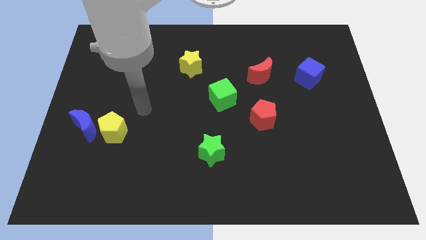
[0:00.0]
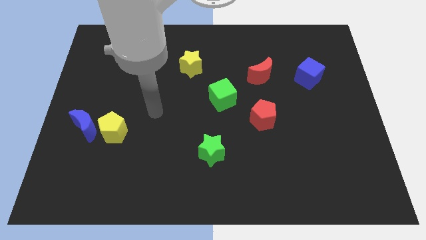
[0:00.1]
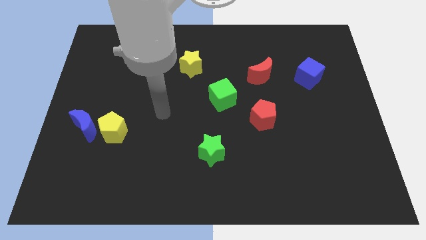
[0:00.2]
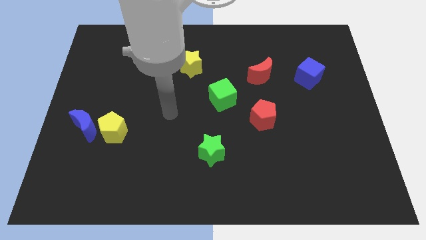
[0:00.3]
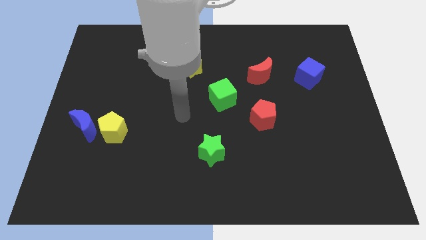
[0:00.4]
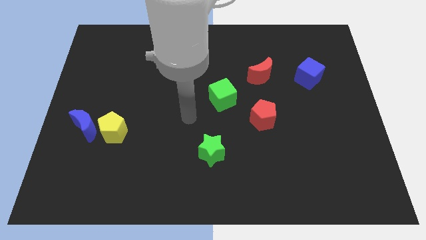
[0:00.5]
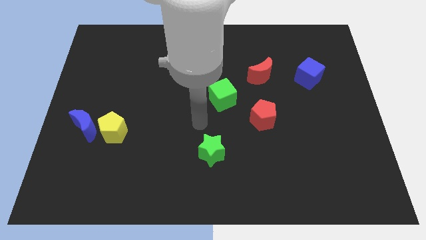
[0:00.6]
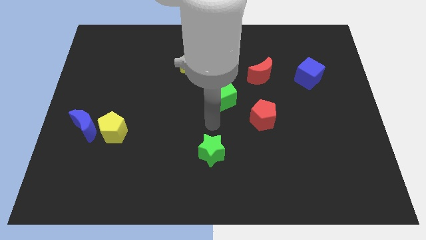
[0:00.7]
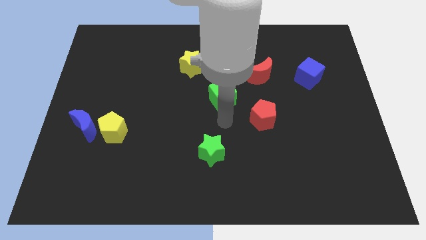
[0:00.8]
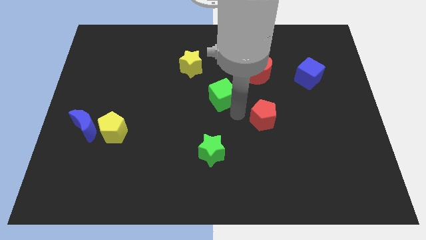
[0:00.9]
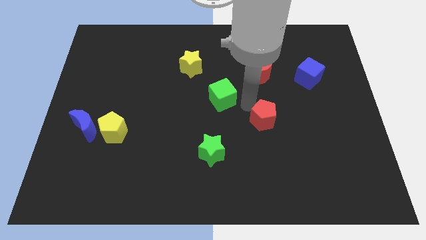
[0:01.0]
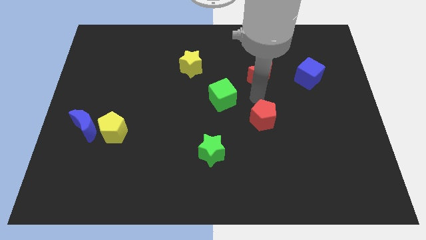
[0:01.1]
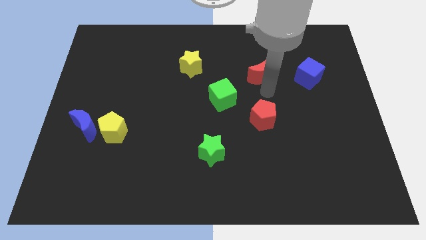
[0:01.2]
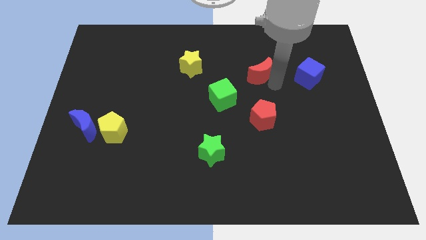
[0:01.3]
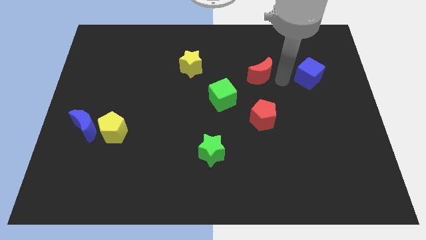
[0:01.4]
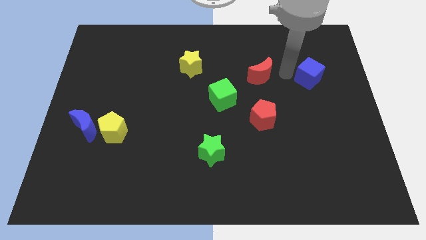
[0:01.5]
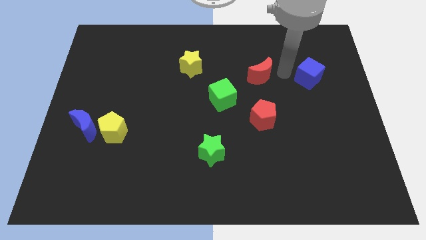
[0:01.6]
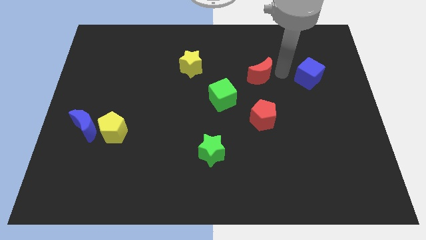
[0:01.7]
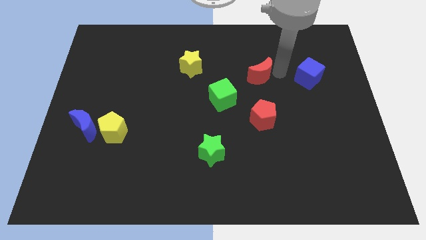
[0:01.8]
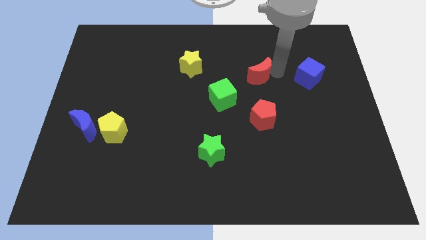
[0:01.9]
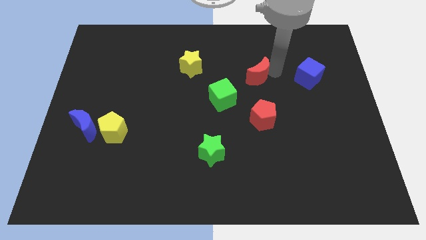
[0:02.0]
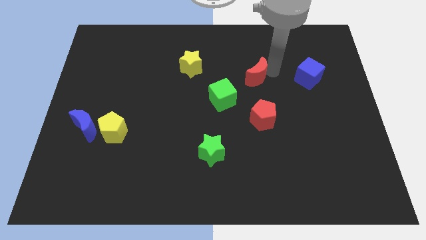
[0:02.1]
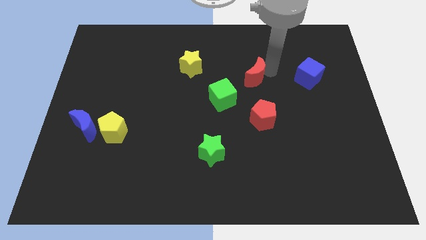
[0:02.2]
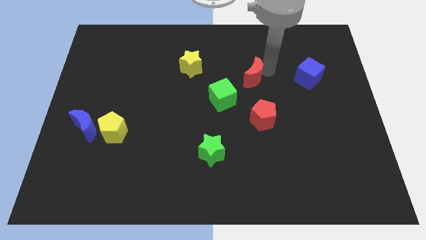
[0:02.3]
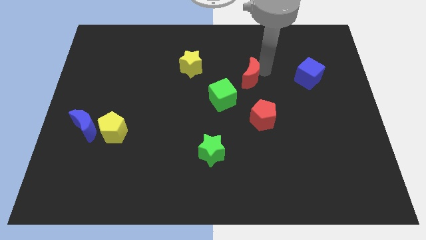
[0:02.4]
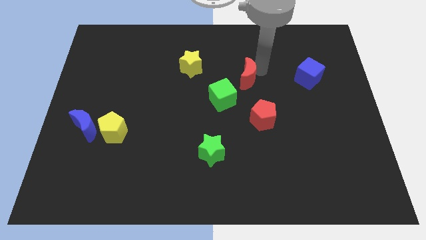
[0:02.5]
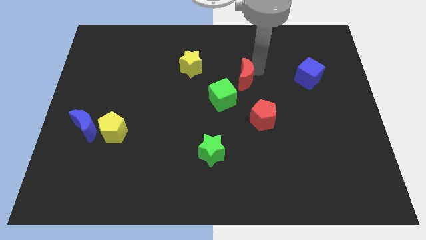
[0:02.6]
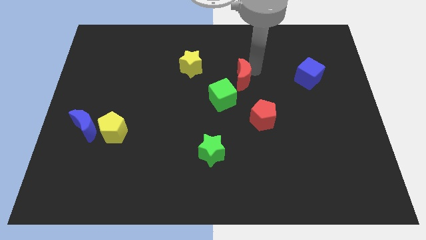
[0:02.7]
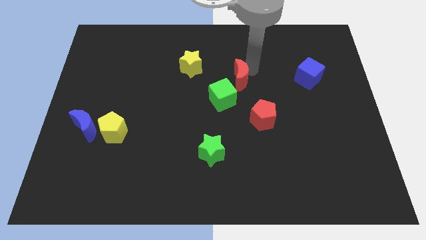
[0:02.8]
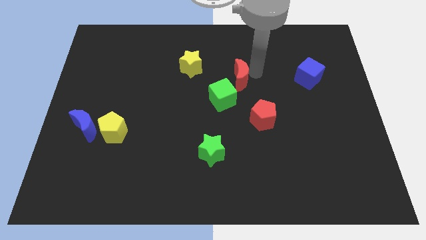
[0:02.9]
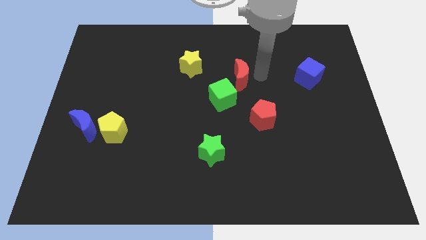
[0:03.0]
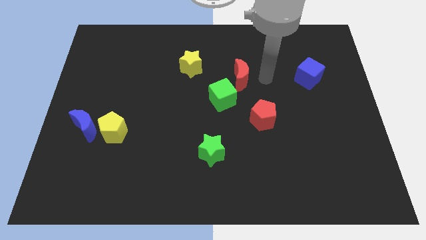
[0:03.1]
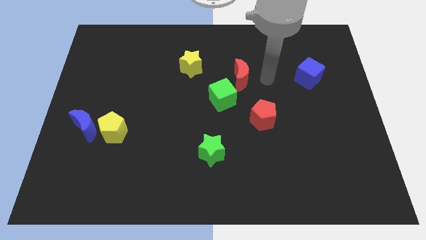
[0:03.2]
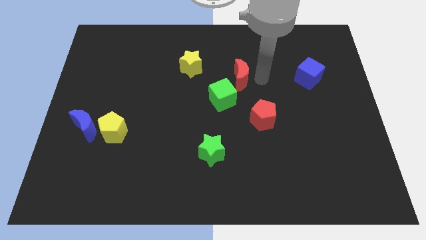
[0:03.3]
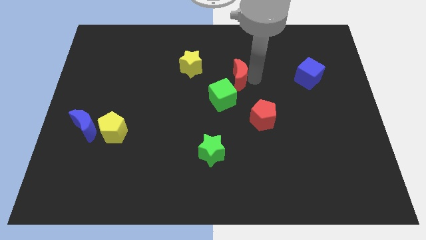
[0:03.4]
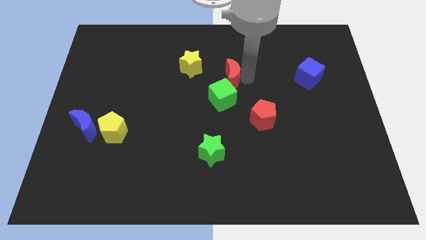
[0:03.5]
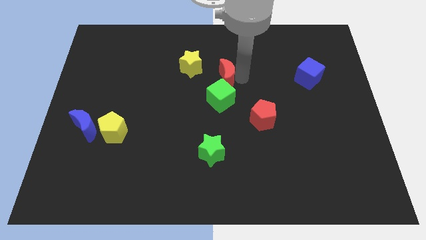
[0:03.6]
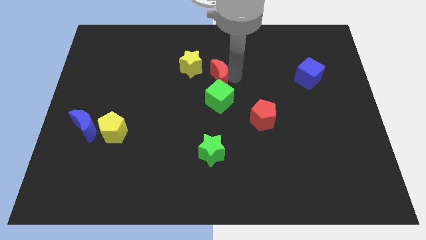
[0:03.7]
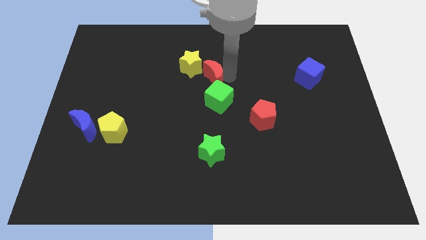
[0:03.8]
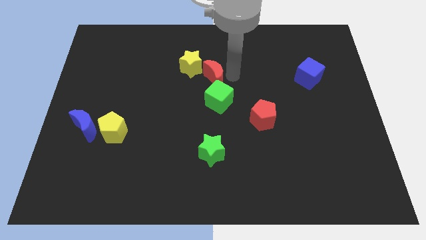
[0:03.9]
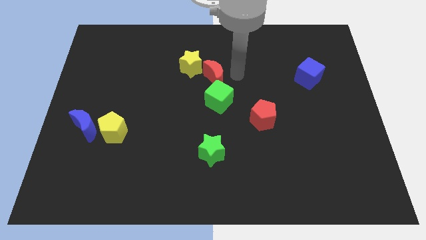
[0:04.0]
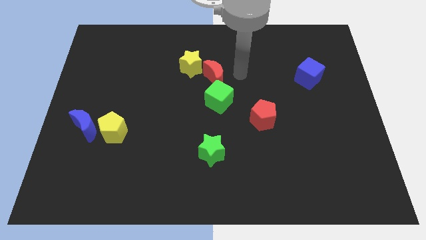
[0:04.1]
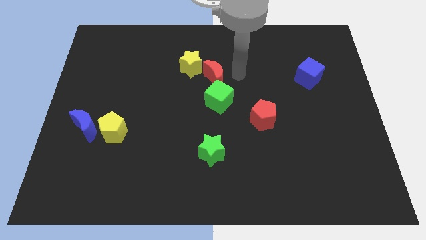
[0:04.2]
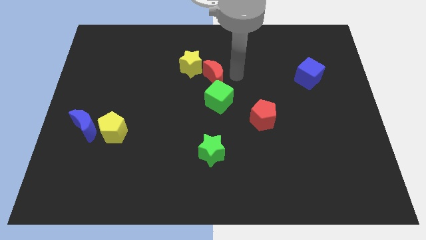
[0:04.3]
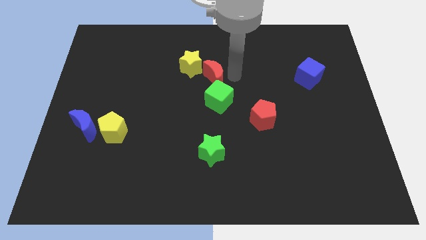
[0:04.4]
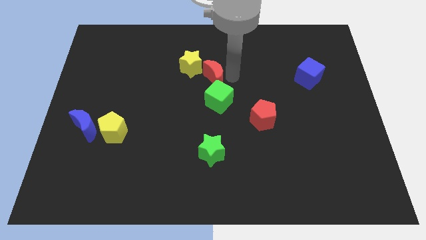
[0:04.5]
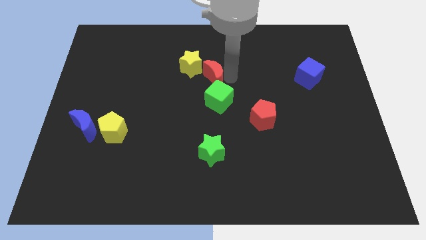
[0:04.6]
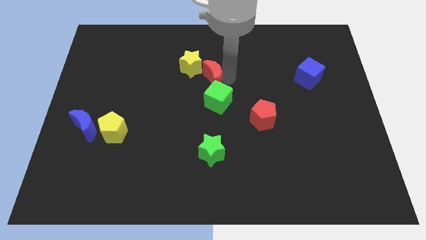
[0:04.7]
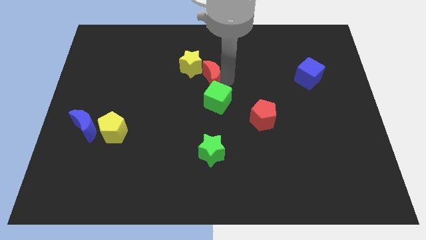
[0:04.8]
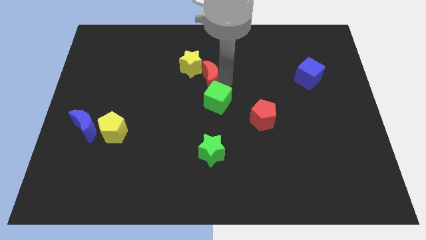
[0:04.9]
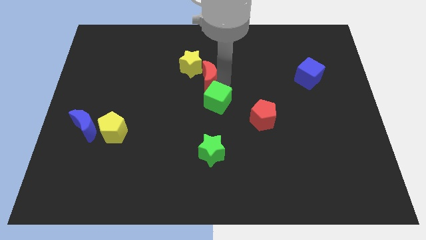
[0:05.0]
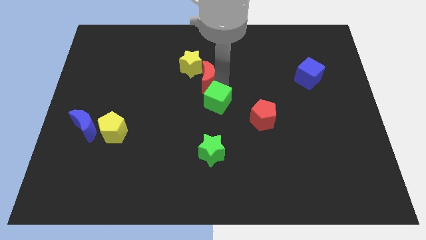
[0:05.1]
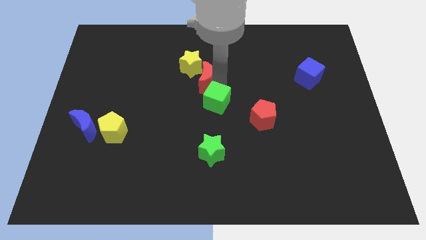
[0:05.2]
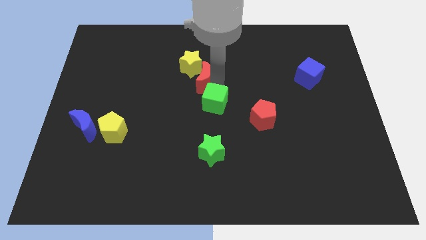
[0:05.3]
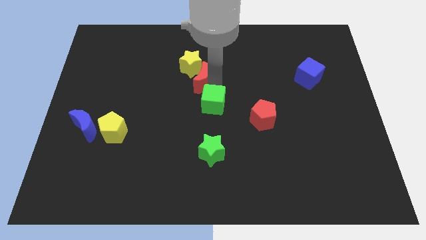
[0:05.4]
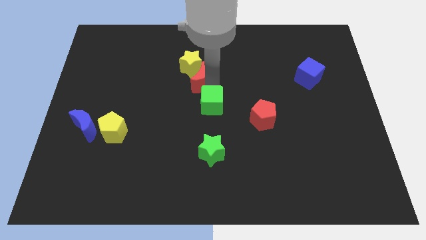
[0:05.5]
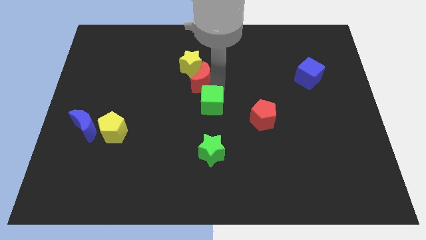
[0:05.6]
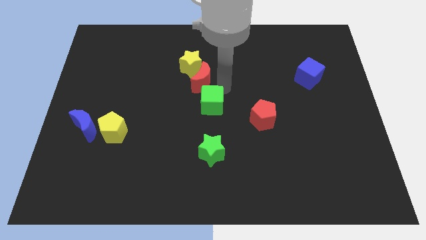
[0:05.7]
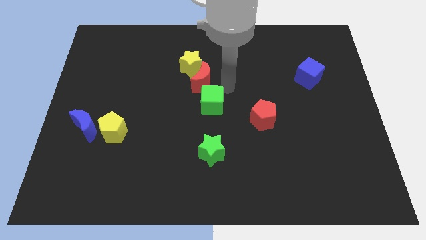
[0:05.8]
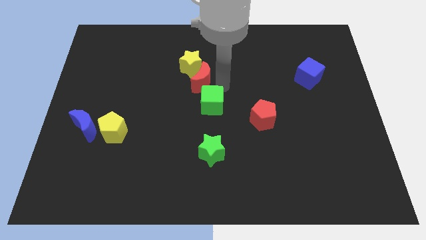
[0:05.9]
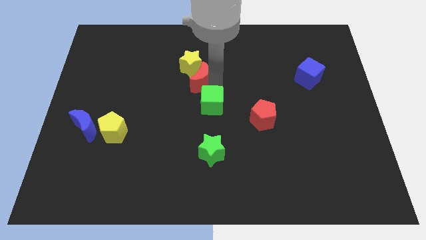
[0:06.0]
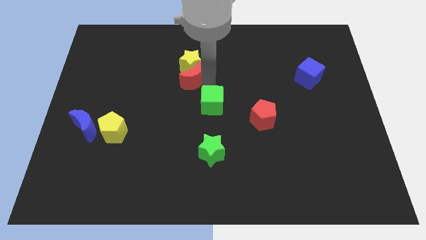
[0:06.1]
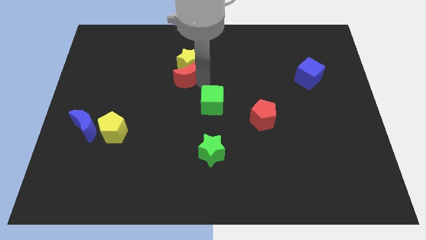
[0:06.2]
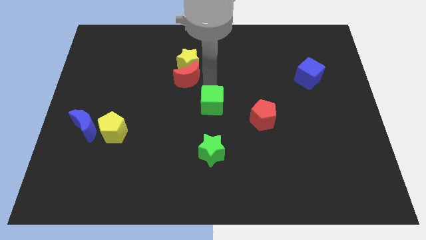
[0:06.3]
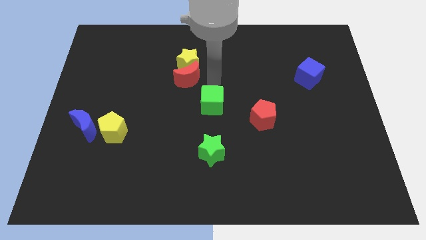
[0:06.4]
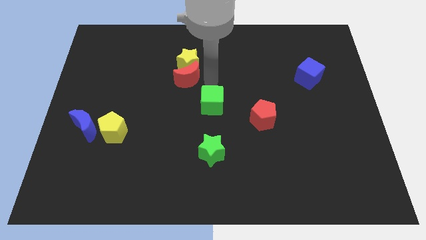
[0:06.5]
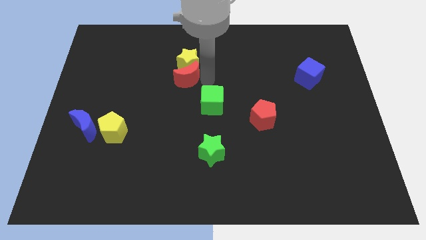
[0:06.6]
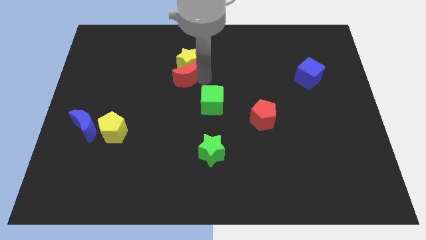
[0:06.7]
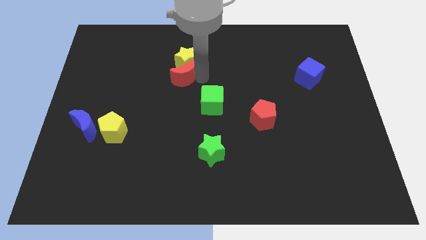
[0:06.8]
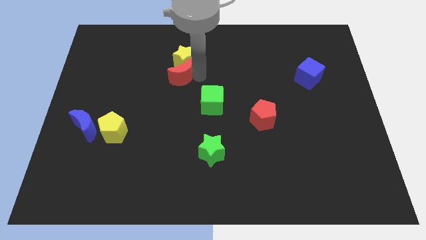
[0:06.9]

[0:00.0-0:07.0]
push the red moon to the left

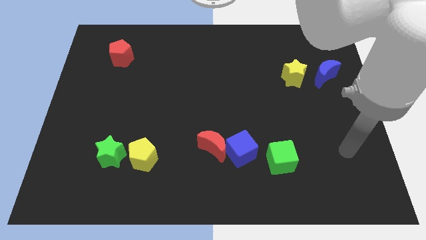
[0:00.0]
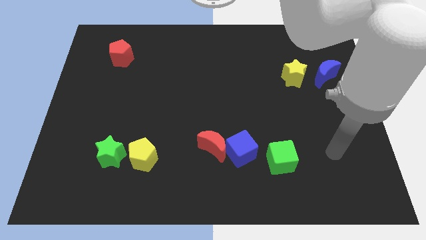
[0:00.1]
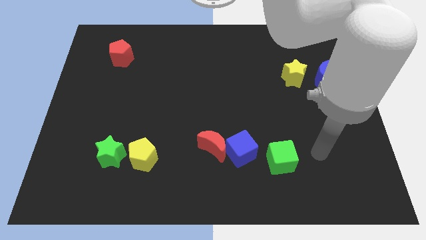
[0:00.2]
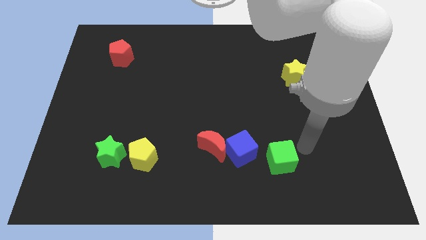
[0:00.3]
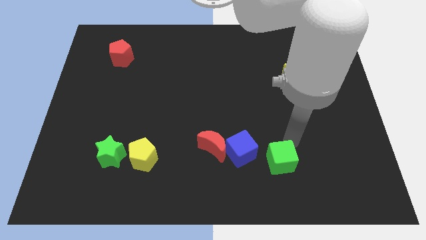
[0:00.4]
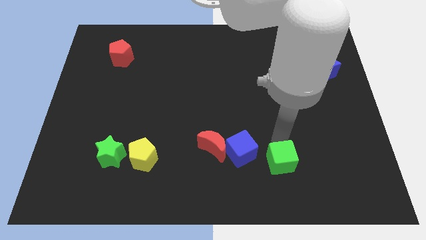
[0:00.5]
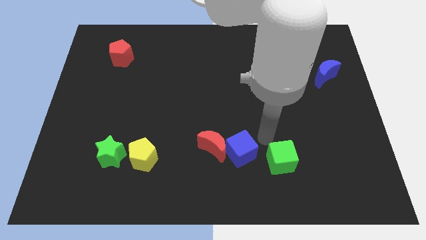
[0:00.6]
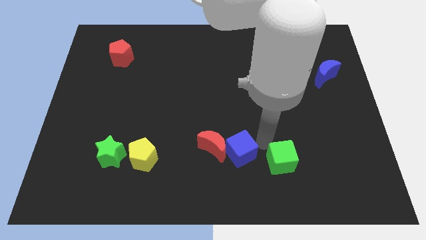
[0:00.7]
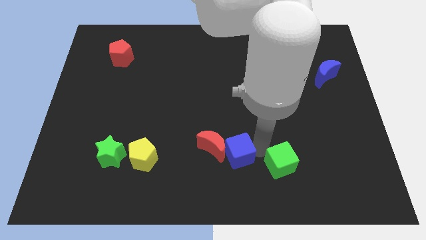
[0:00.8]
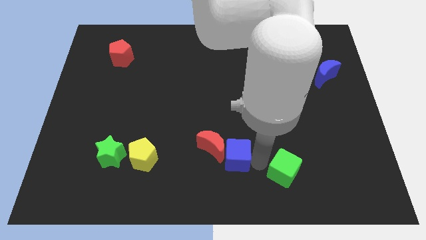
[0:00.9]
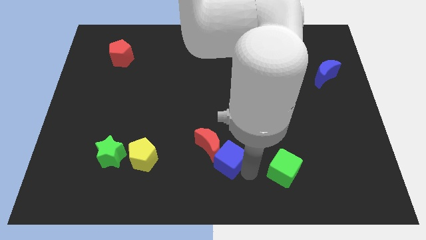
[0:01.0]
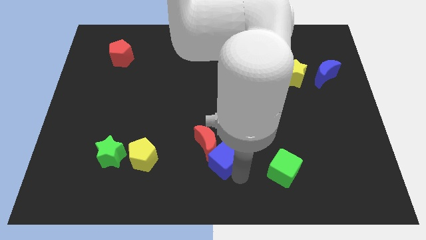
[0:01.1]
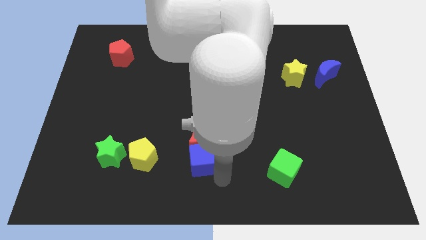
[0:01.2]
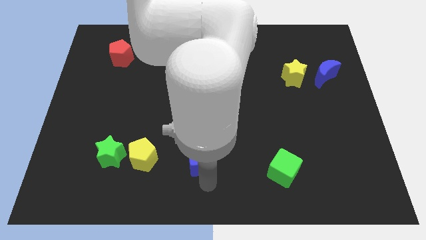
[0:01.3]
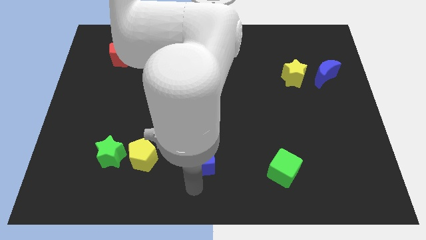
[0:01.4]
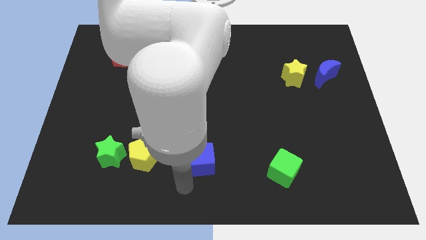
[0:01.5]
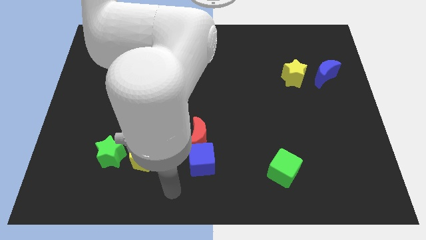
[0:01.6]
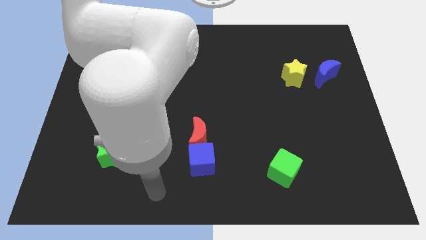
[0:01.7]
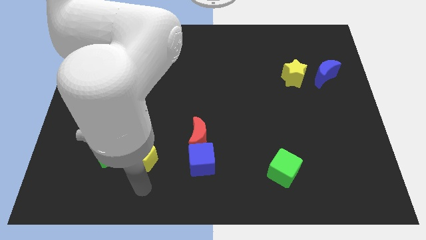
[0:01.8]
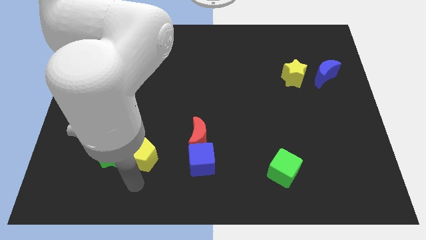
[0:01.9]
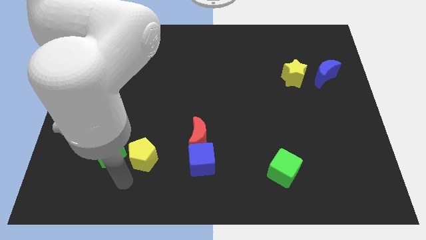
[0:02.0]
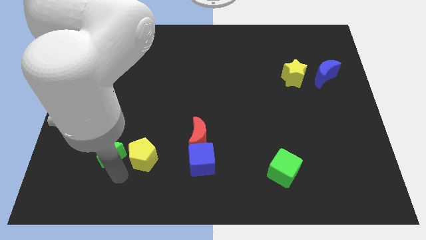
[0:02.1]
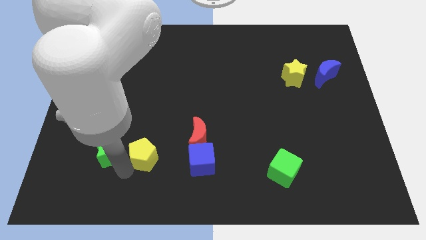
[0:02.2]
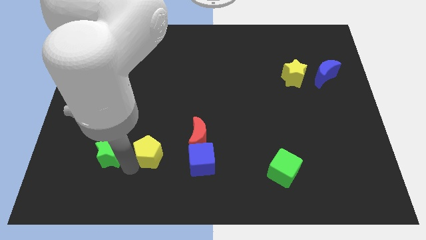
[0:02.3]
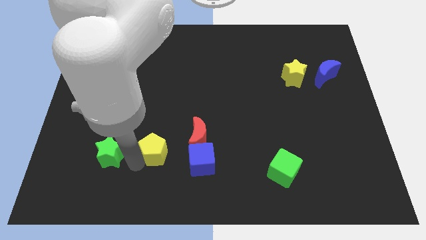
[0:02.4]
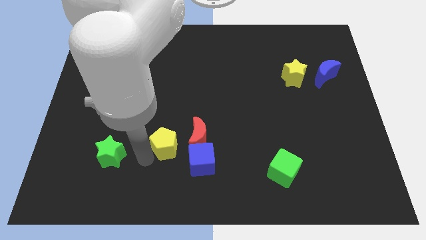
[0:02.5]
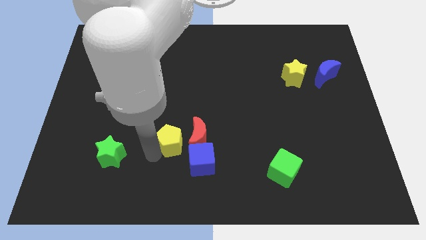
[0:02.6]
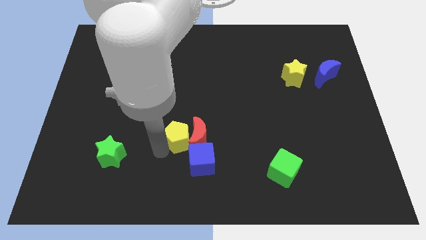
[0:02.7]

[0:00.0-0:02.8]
slightly slide the yellow pentagon up and then right
